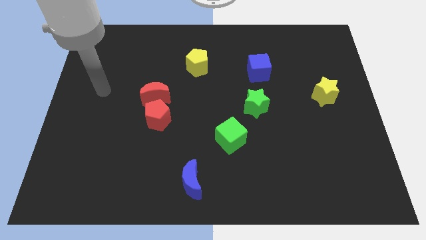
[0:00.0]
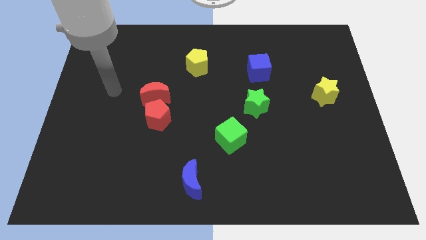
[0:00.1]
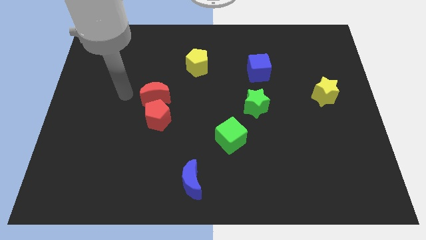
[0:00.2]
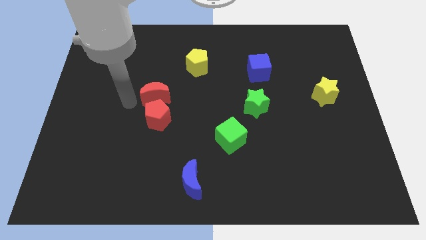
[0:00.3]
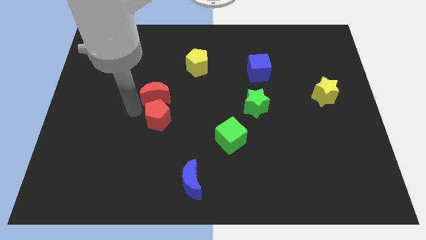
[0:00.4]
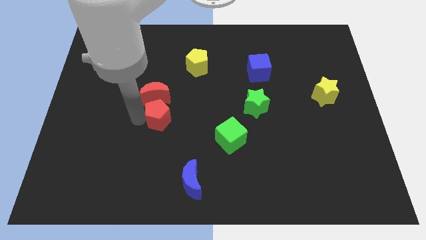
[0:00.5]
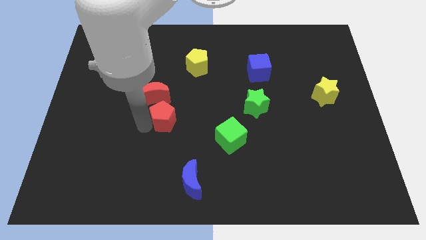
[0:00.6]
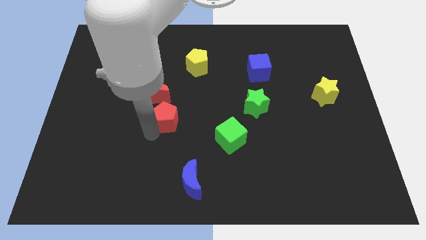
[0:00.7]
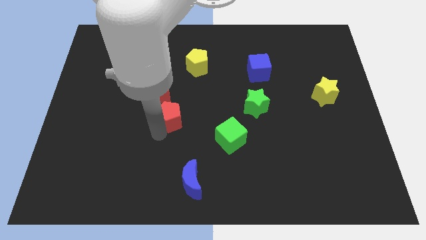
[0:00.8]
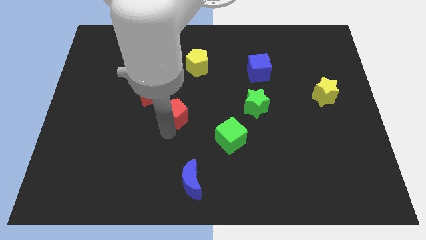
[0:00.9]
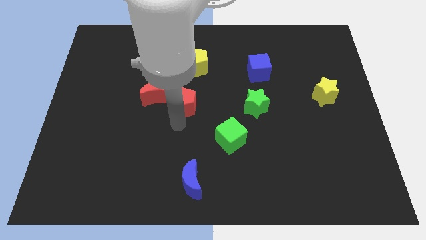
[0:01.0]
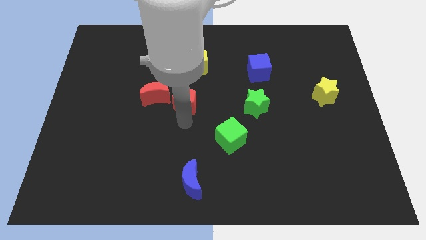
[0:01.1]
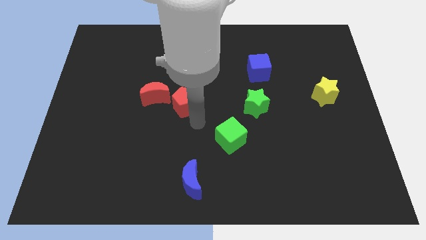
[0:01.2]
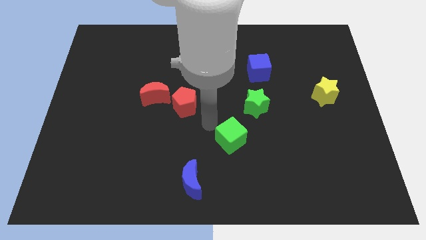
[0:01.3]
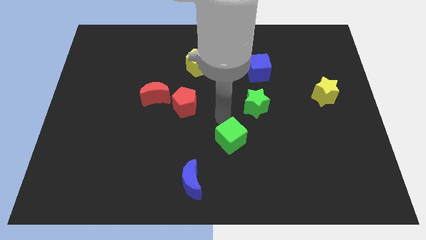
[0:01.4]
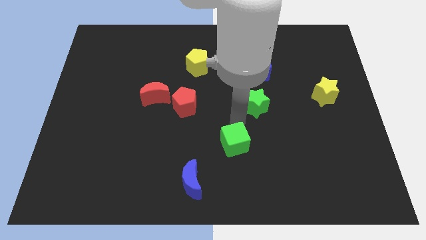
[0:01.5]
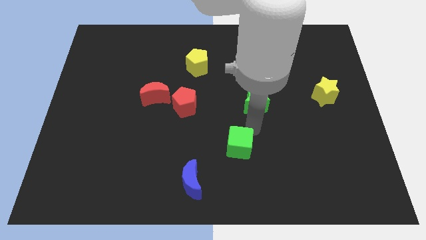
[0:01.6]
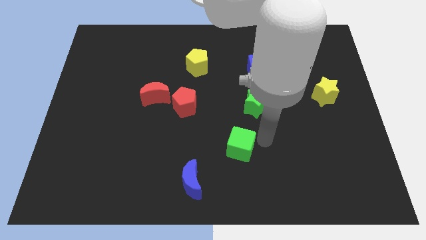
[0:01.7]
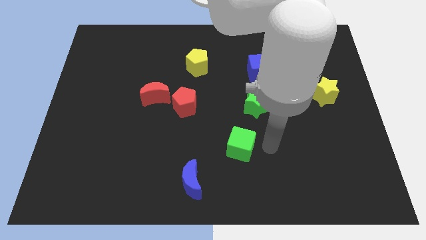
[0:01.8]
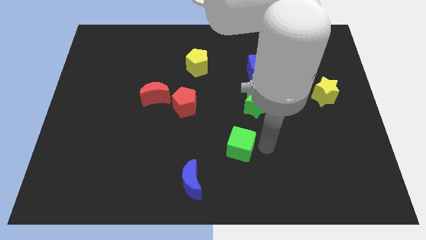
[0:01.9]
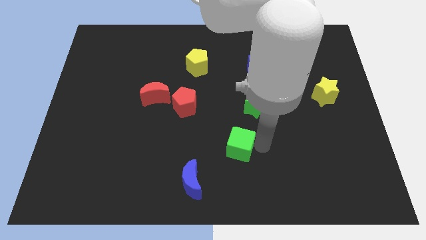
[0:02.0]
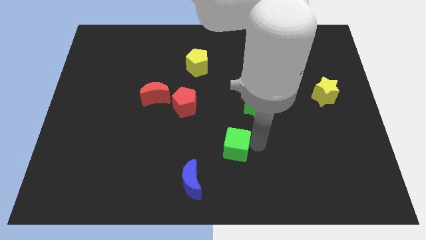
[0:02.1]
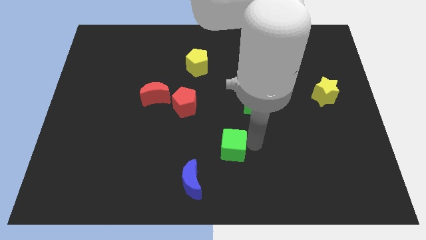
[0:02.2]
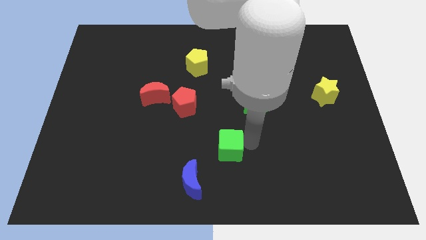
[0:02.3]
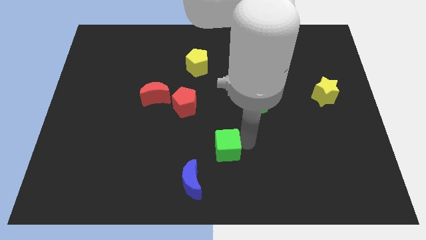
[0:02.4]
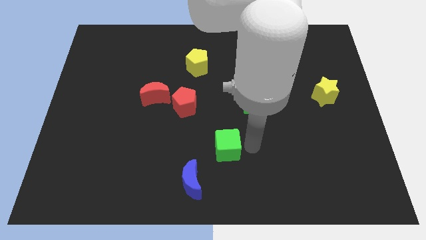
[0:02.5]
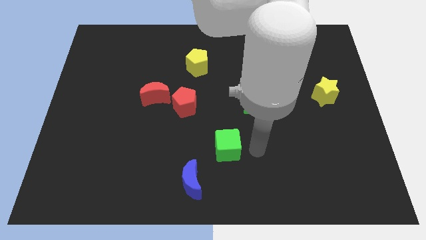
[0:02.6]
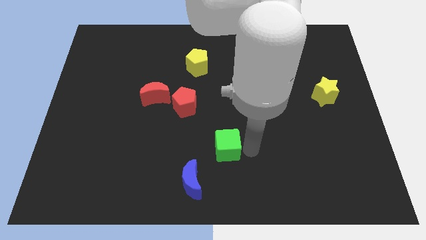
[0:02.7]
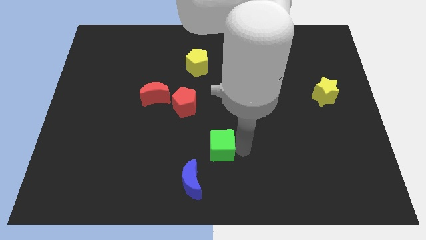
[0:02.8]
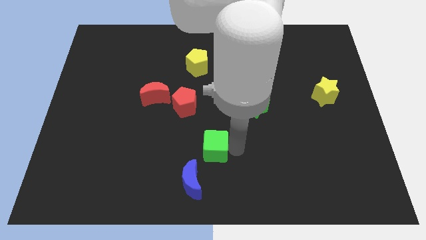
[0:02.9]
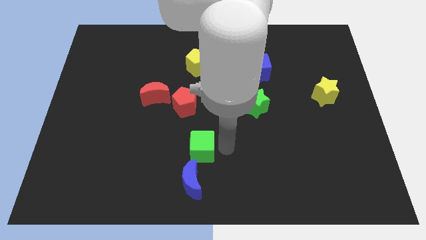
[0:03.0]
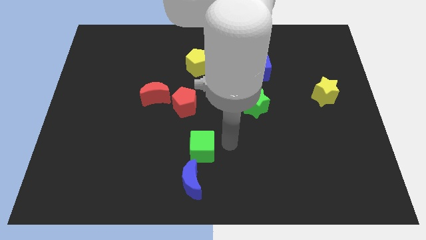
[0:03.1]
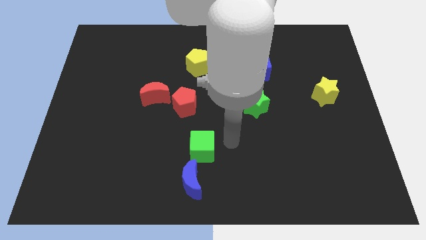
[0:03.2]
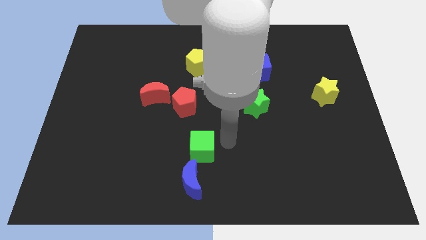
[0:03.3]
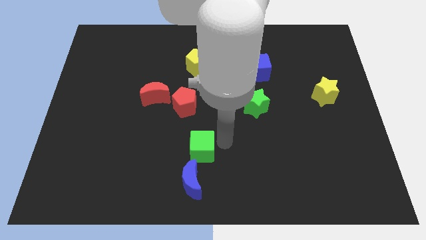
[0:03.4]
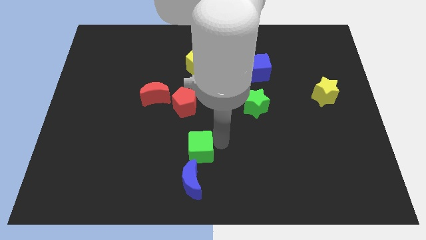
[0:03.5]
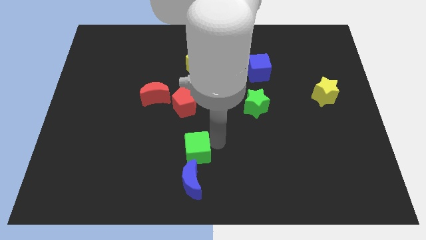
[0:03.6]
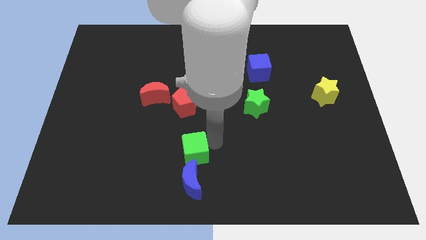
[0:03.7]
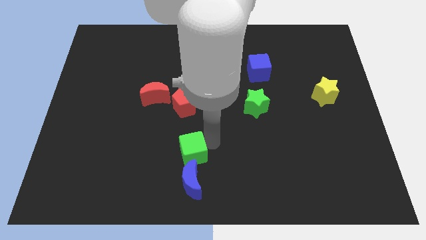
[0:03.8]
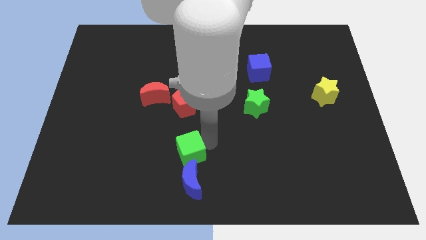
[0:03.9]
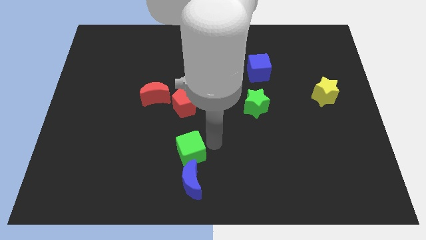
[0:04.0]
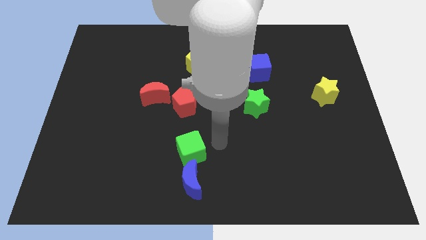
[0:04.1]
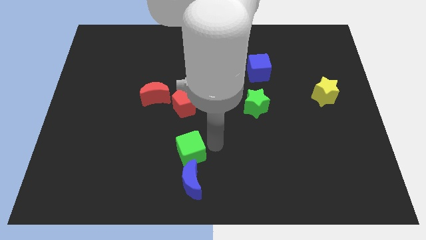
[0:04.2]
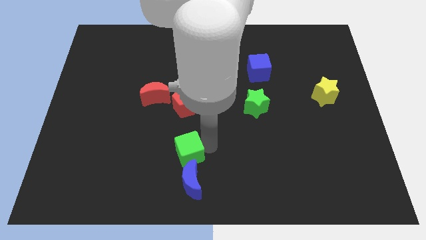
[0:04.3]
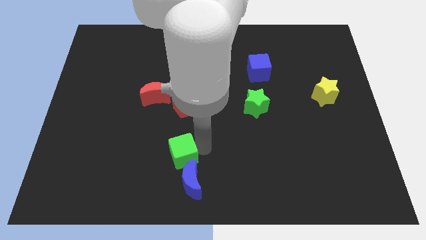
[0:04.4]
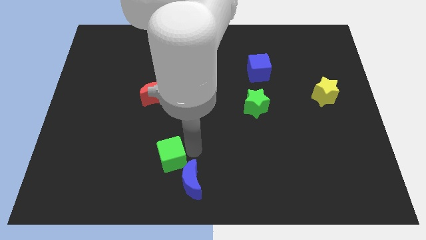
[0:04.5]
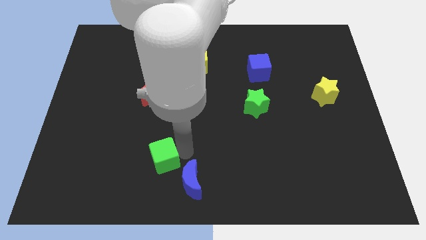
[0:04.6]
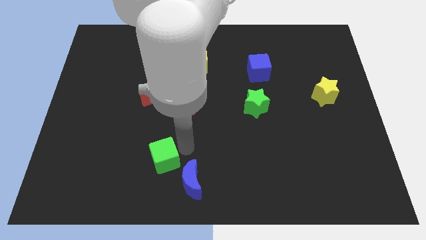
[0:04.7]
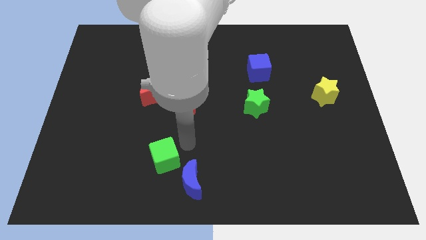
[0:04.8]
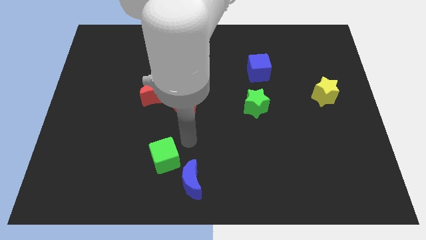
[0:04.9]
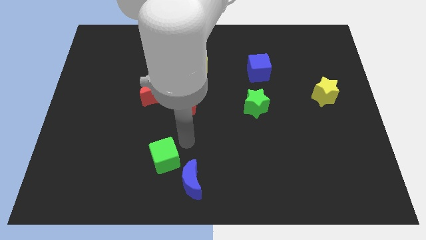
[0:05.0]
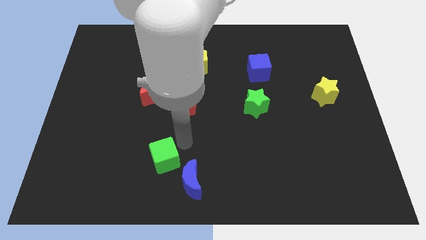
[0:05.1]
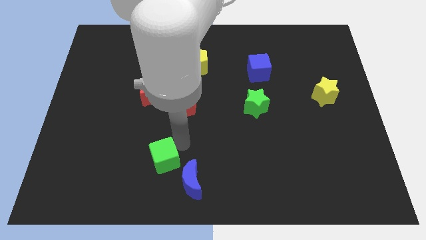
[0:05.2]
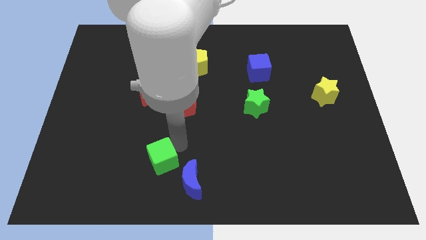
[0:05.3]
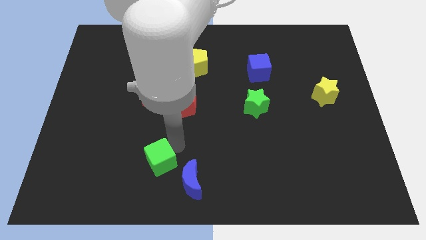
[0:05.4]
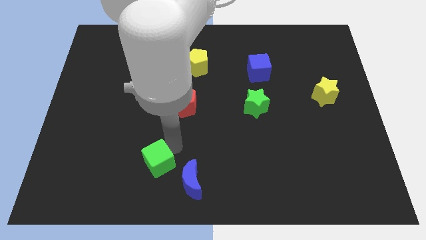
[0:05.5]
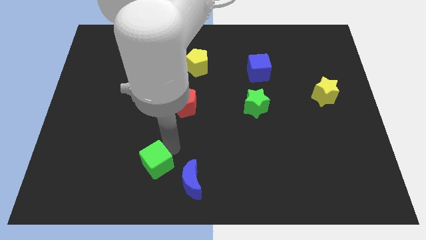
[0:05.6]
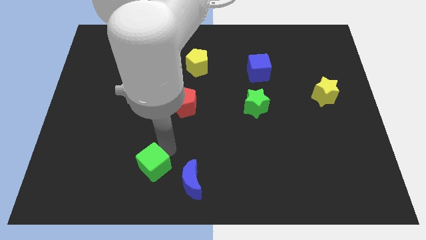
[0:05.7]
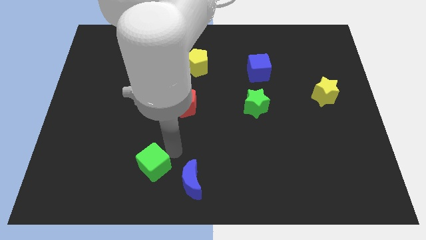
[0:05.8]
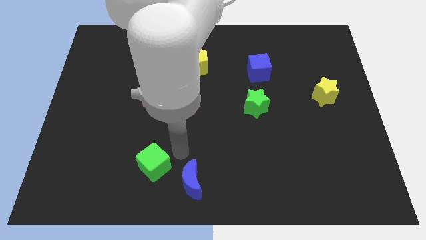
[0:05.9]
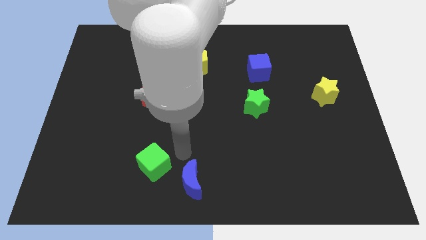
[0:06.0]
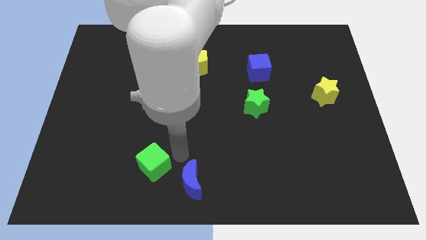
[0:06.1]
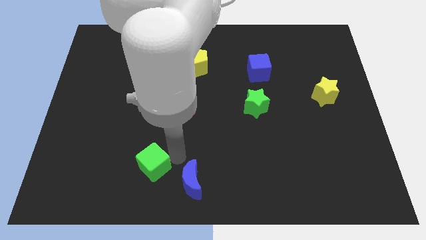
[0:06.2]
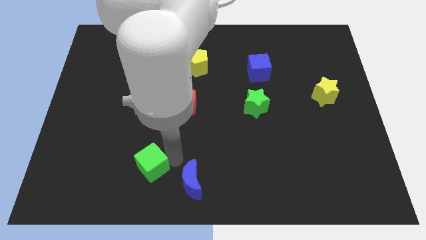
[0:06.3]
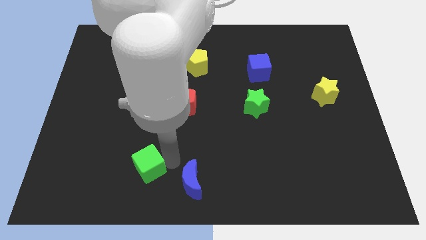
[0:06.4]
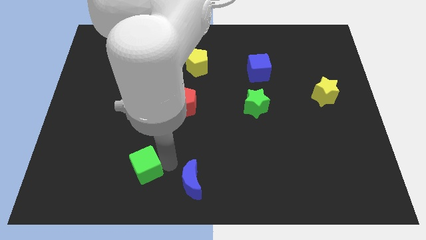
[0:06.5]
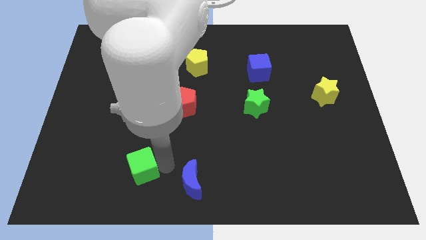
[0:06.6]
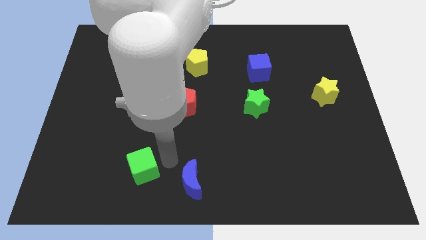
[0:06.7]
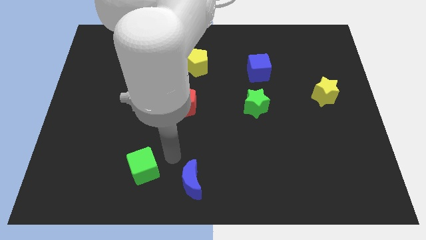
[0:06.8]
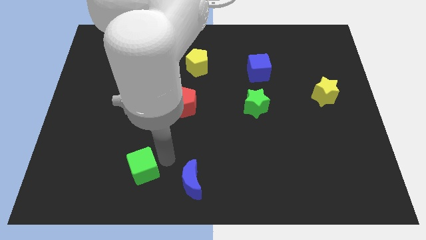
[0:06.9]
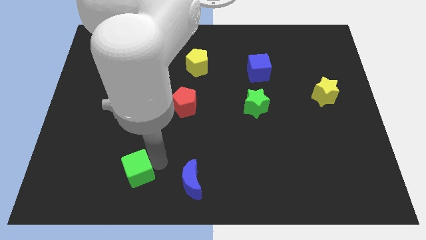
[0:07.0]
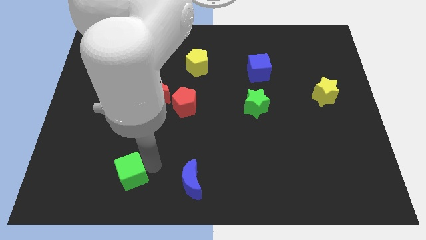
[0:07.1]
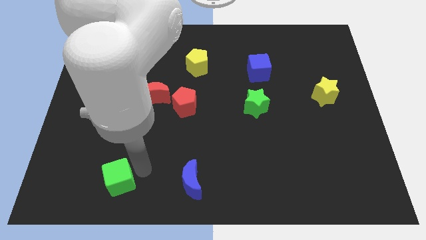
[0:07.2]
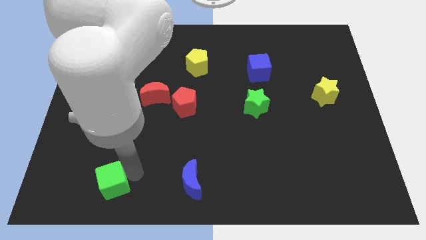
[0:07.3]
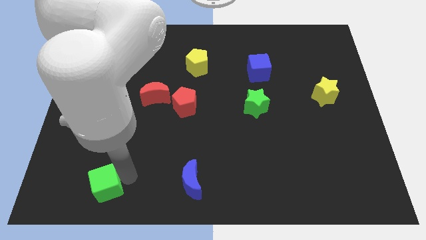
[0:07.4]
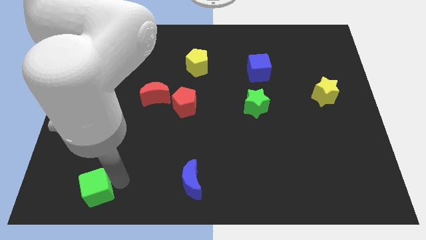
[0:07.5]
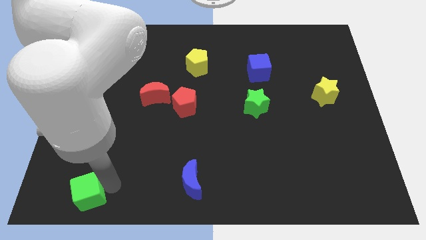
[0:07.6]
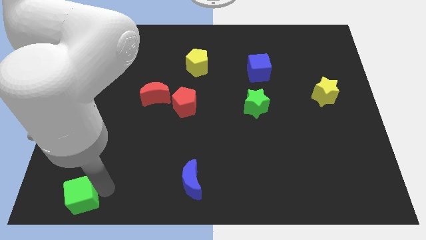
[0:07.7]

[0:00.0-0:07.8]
slide the green cube to the bottom left
